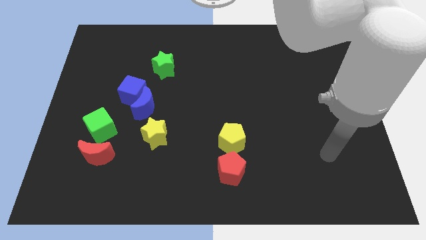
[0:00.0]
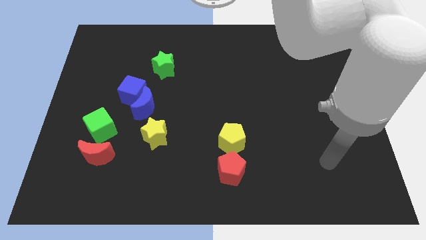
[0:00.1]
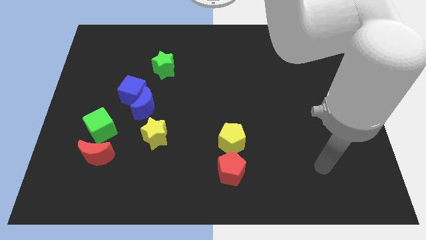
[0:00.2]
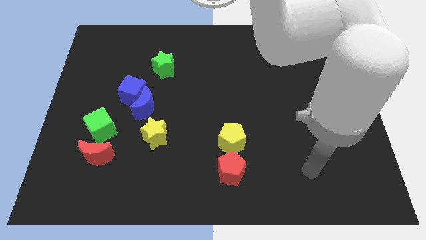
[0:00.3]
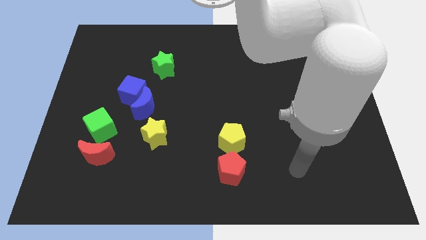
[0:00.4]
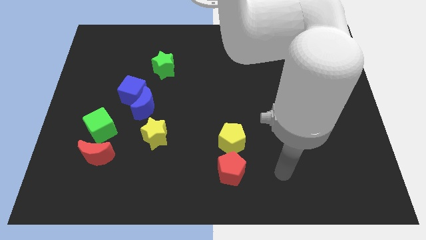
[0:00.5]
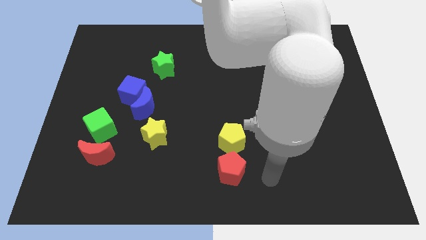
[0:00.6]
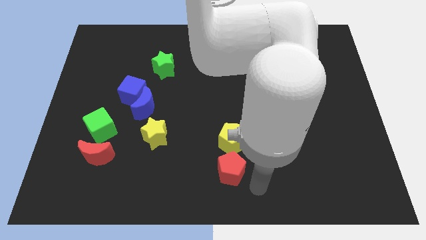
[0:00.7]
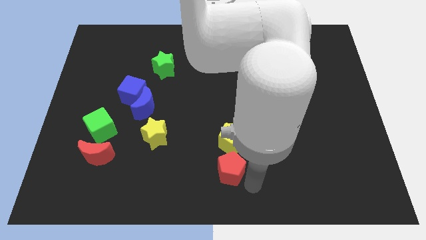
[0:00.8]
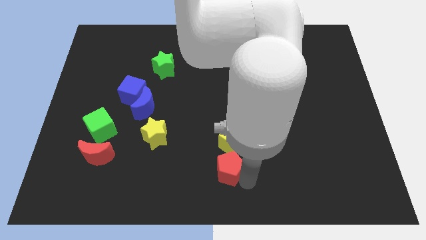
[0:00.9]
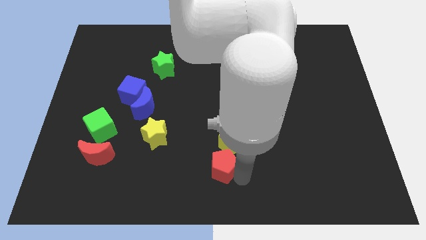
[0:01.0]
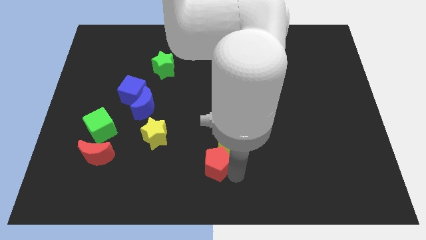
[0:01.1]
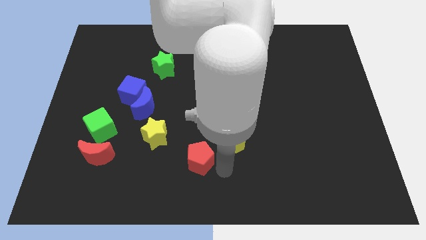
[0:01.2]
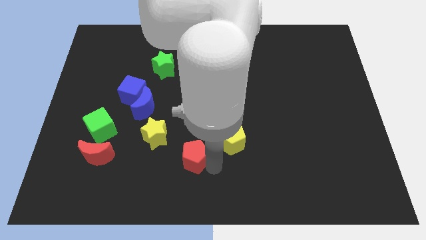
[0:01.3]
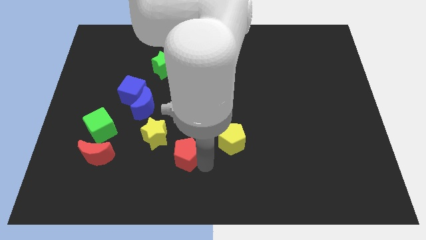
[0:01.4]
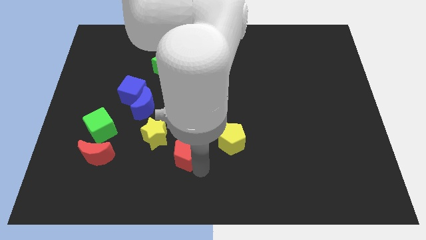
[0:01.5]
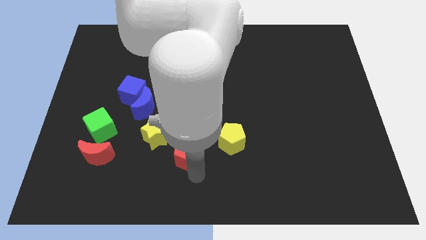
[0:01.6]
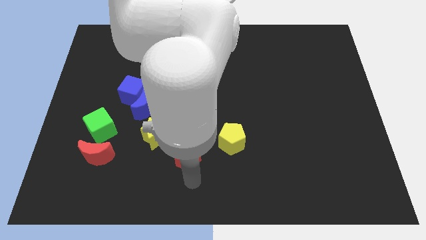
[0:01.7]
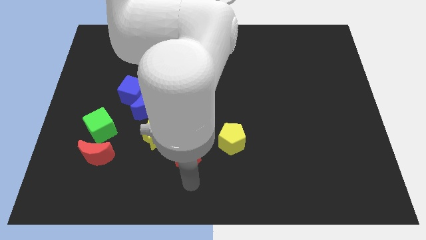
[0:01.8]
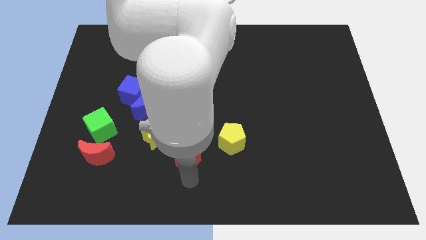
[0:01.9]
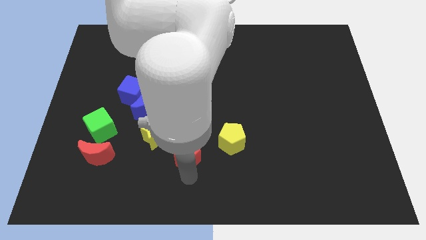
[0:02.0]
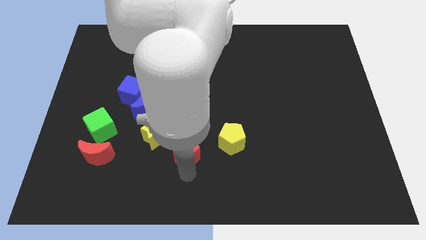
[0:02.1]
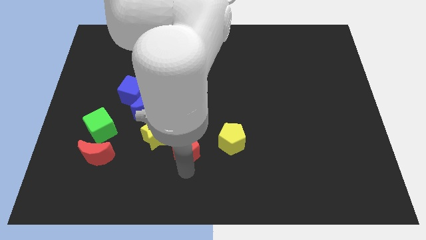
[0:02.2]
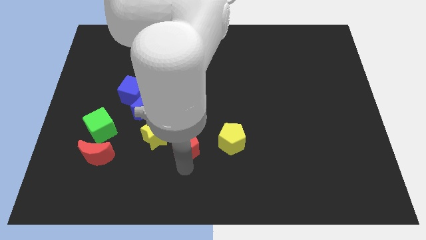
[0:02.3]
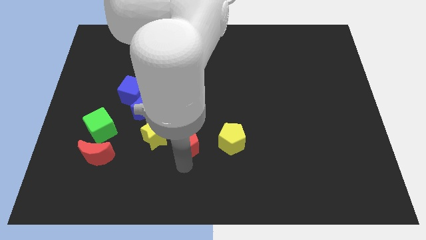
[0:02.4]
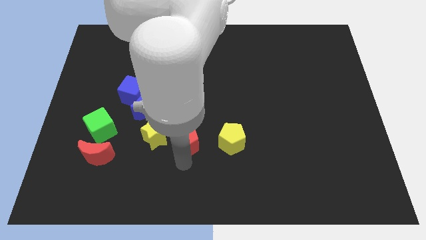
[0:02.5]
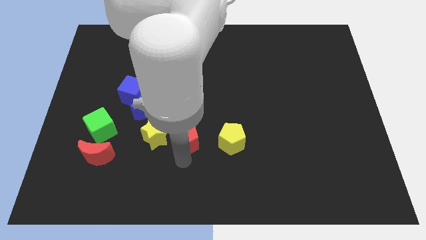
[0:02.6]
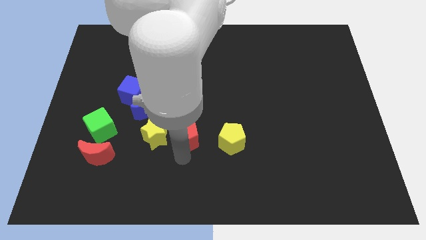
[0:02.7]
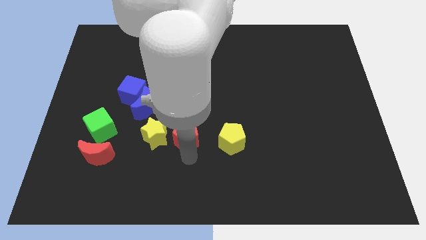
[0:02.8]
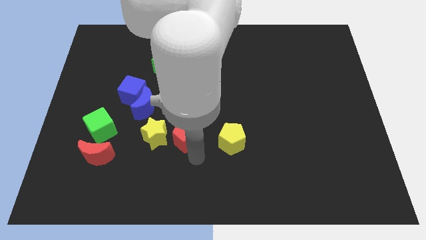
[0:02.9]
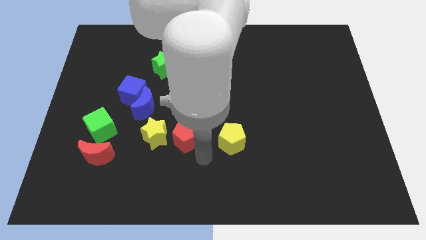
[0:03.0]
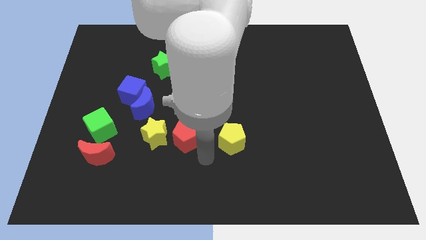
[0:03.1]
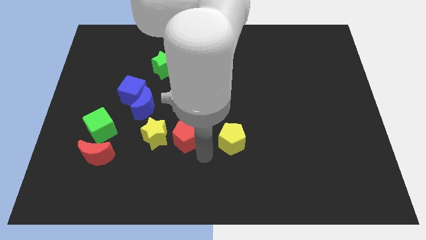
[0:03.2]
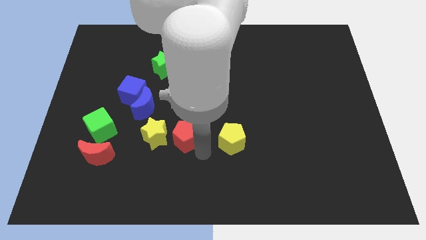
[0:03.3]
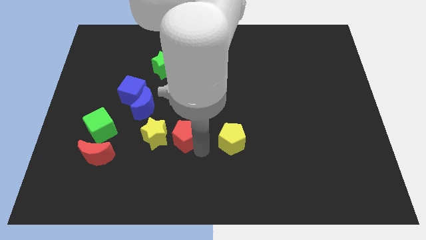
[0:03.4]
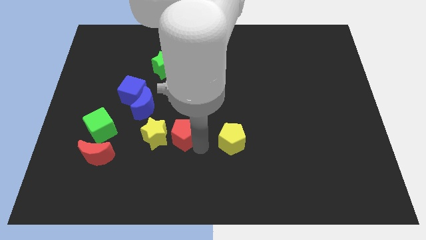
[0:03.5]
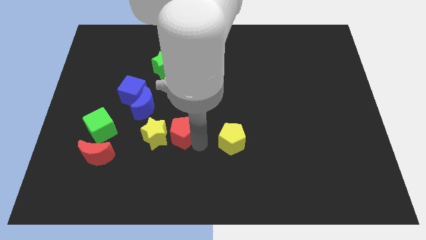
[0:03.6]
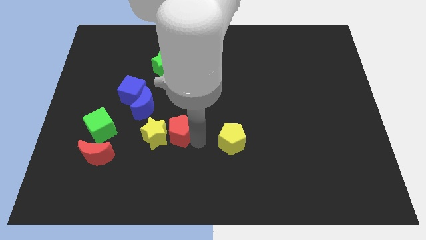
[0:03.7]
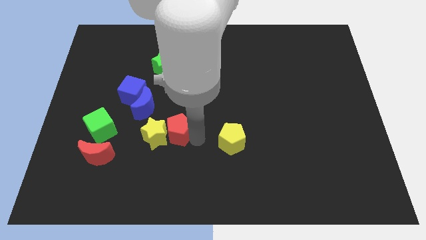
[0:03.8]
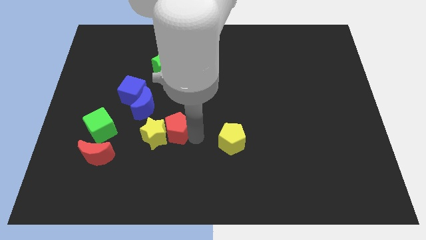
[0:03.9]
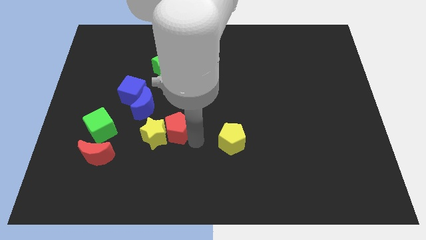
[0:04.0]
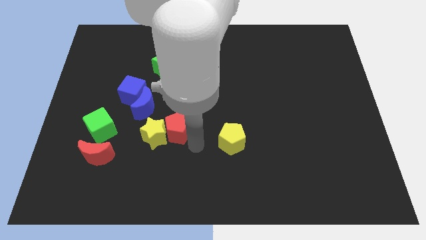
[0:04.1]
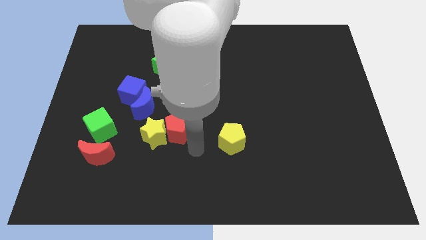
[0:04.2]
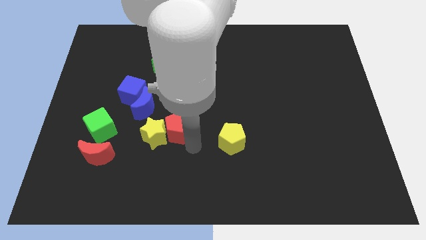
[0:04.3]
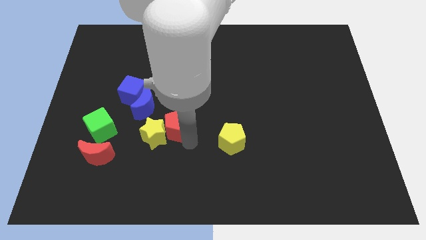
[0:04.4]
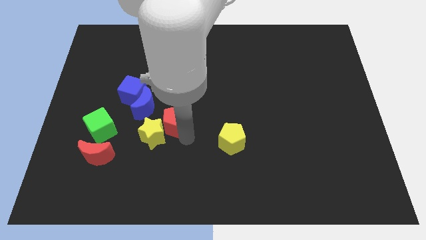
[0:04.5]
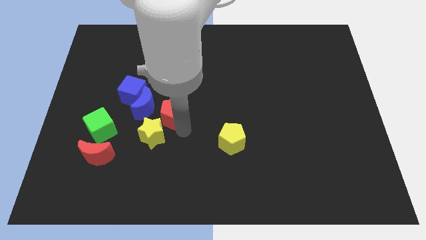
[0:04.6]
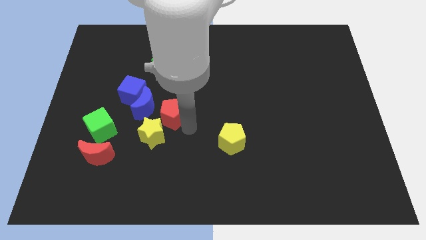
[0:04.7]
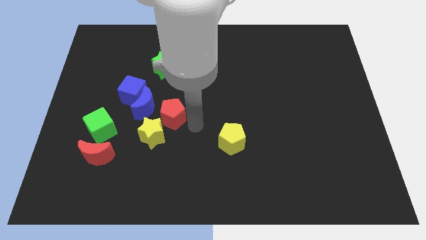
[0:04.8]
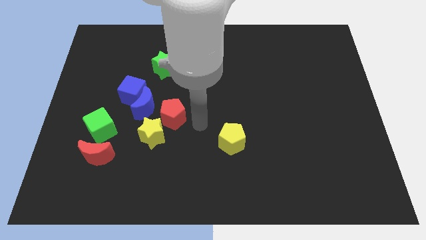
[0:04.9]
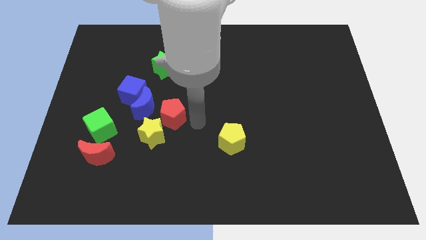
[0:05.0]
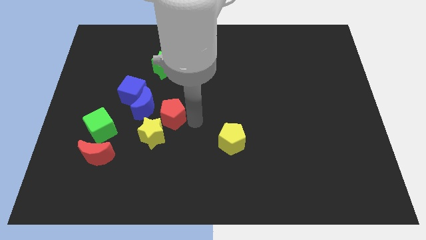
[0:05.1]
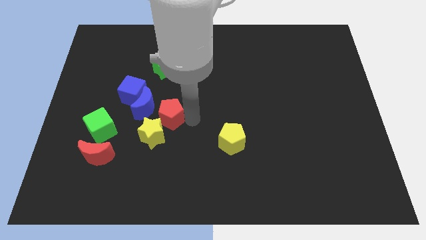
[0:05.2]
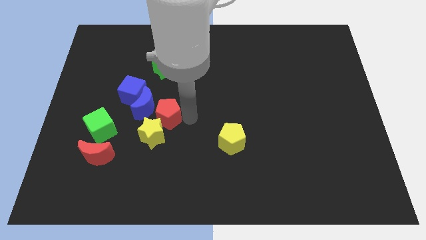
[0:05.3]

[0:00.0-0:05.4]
push the red pentagon next to the blue moon

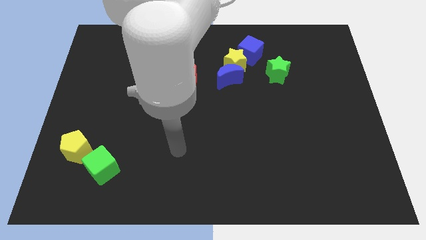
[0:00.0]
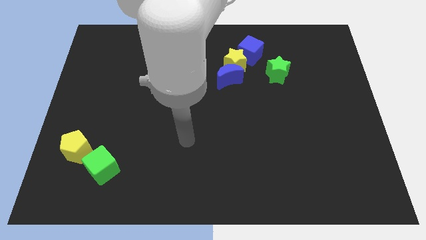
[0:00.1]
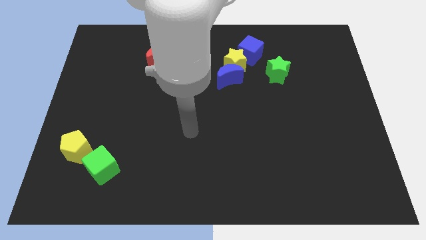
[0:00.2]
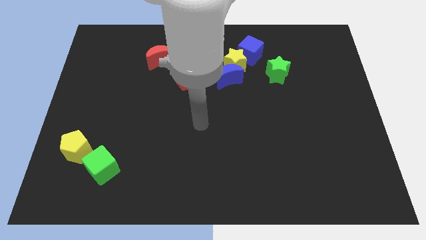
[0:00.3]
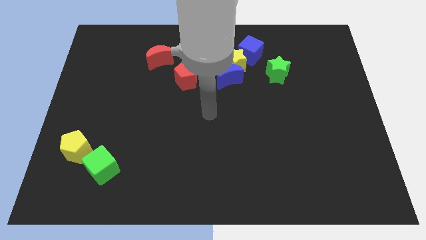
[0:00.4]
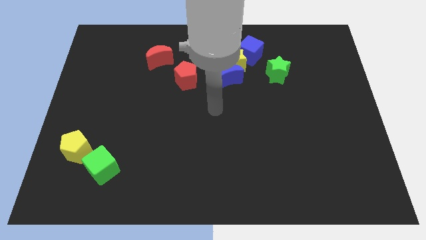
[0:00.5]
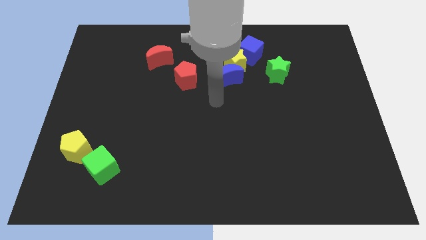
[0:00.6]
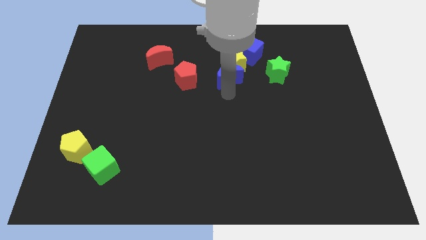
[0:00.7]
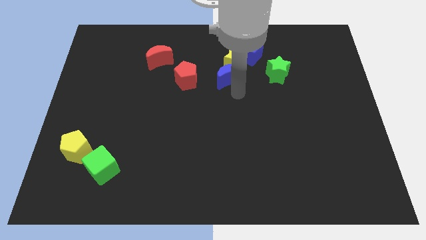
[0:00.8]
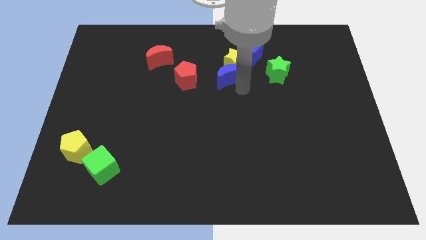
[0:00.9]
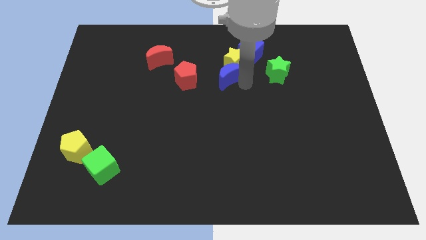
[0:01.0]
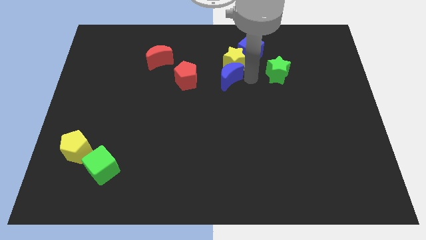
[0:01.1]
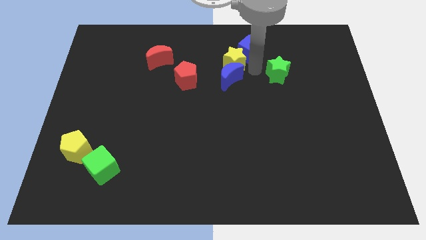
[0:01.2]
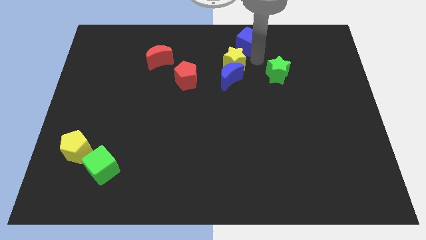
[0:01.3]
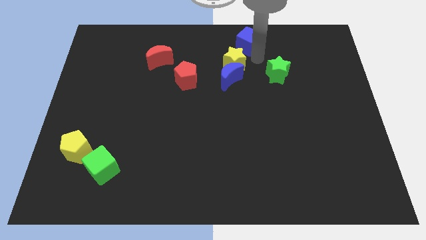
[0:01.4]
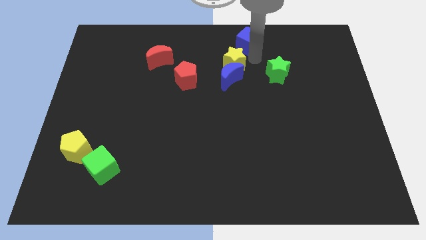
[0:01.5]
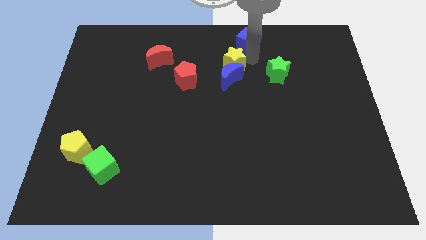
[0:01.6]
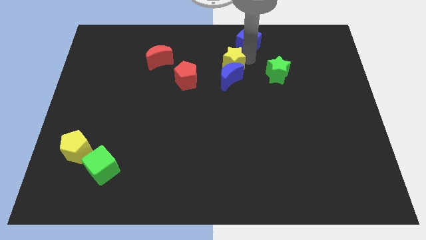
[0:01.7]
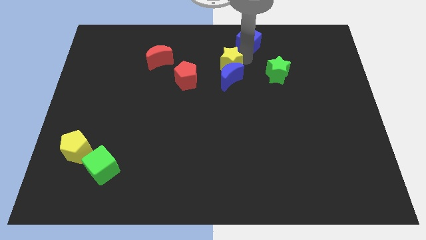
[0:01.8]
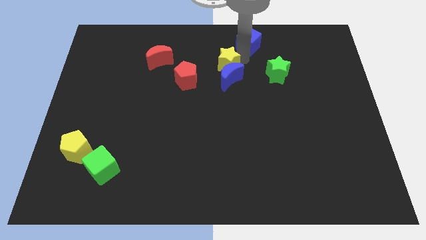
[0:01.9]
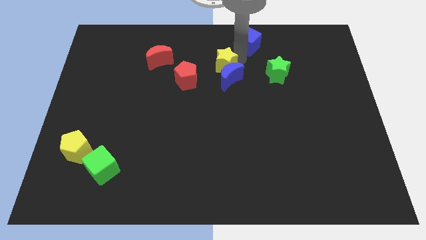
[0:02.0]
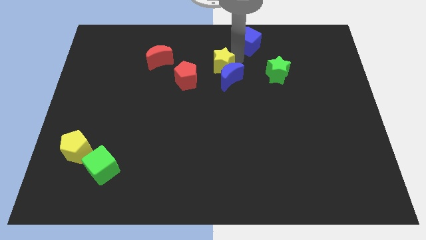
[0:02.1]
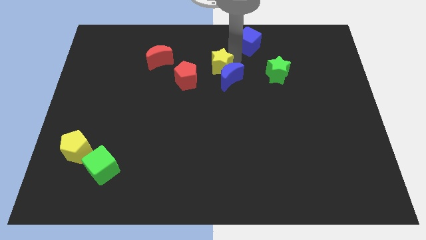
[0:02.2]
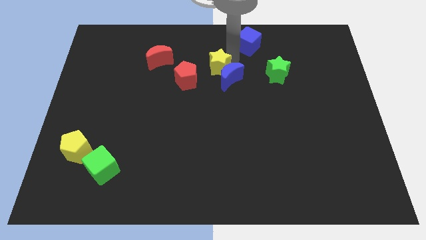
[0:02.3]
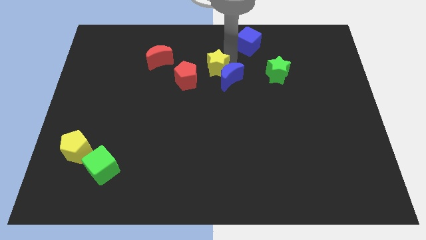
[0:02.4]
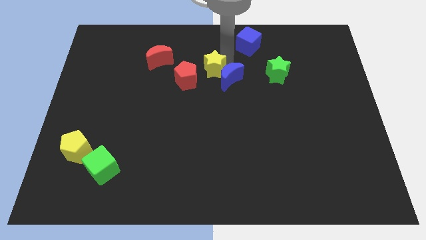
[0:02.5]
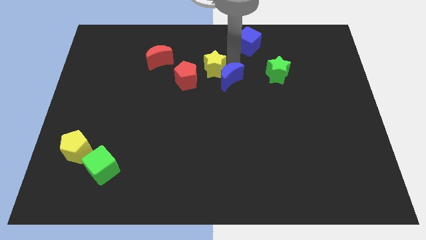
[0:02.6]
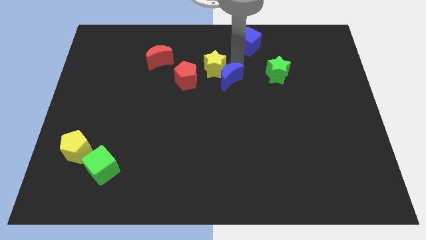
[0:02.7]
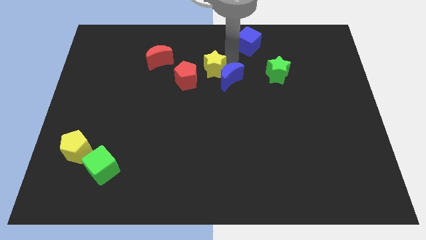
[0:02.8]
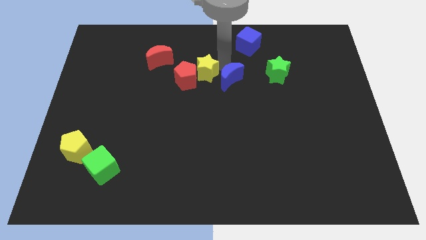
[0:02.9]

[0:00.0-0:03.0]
put the yellow star to the red pentagon
